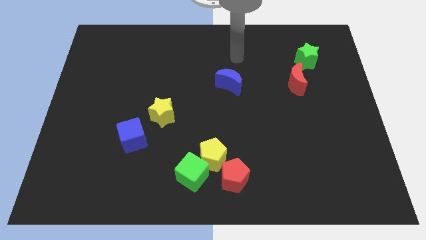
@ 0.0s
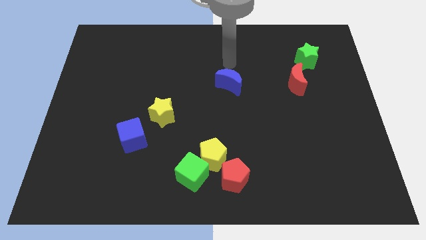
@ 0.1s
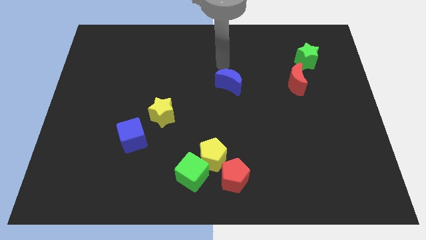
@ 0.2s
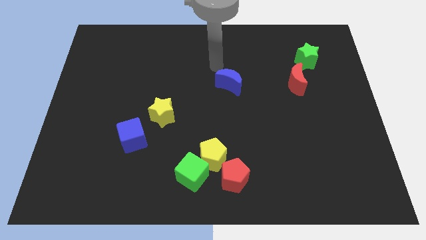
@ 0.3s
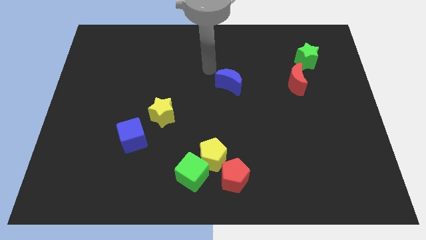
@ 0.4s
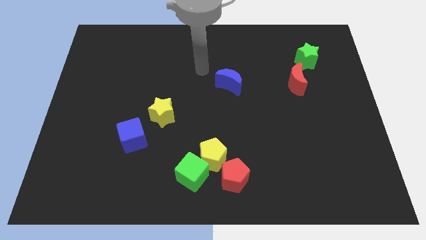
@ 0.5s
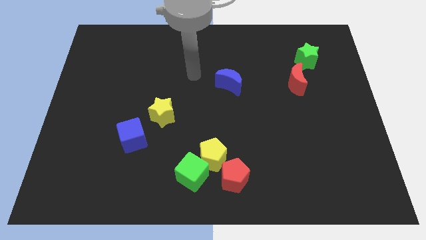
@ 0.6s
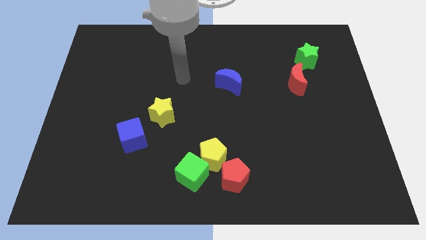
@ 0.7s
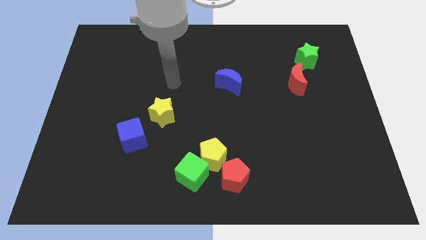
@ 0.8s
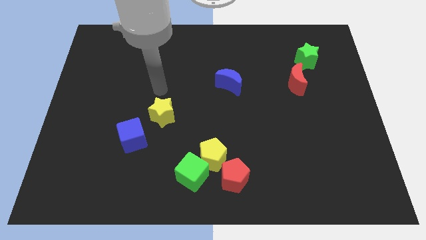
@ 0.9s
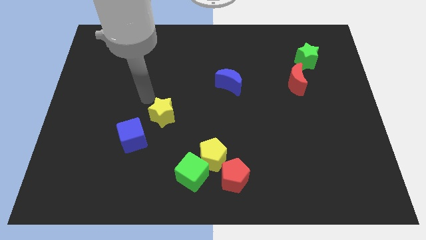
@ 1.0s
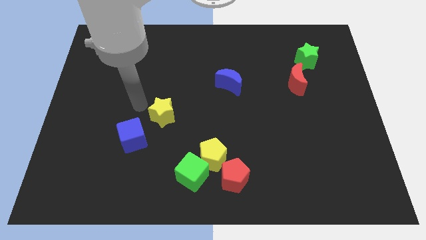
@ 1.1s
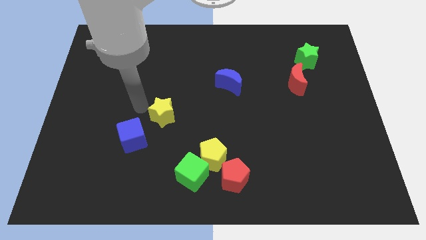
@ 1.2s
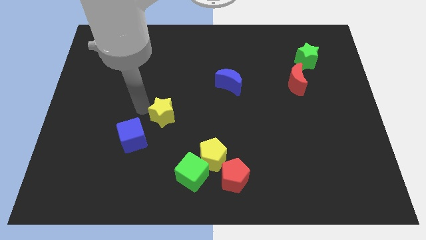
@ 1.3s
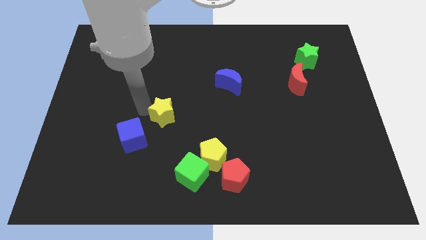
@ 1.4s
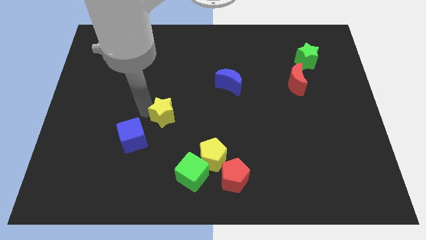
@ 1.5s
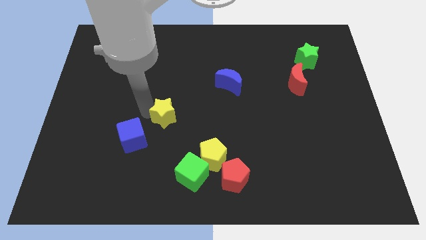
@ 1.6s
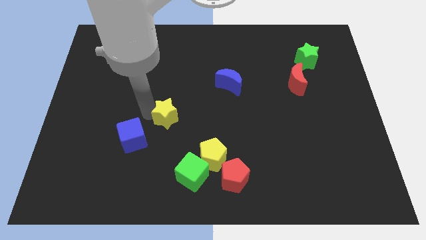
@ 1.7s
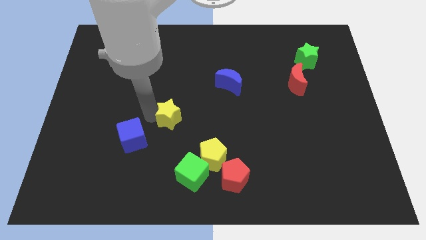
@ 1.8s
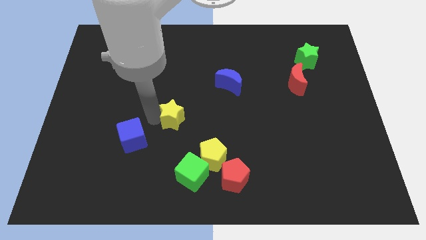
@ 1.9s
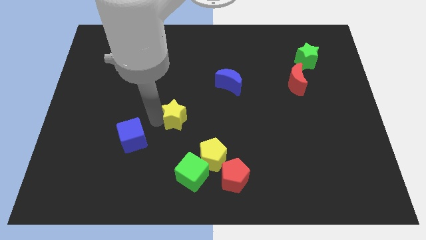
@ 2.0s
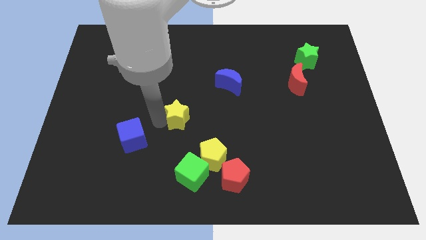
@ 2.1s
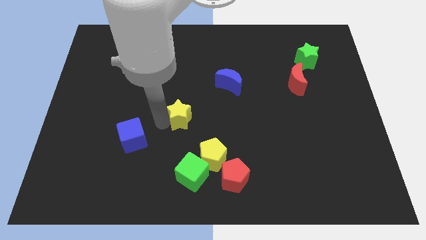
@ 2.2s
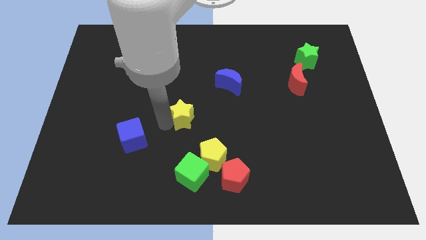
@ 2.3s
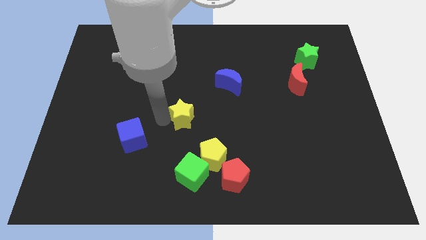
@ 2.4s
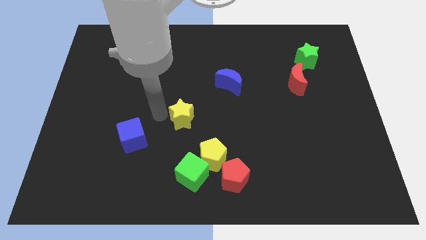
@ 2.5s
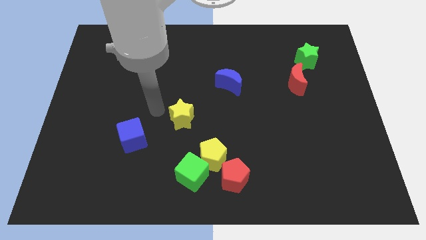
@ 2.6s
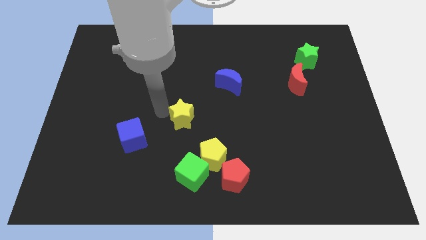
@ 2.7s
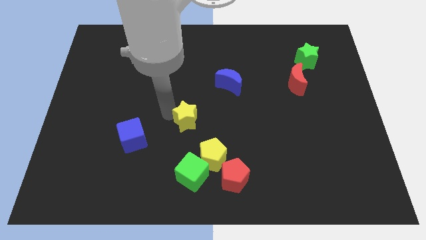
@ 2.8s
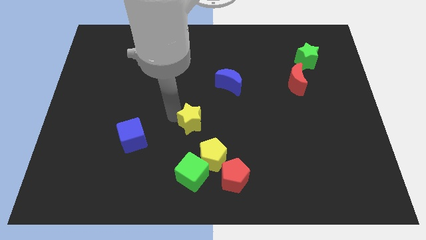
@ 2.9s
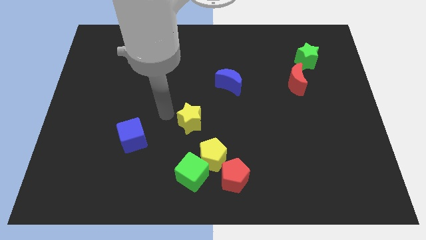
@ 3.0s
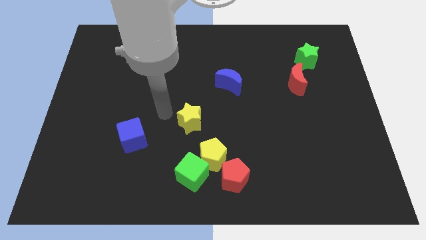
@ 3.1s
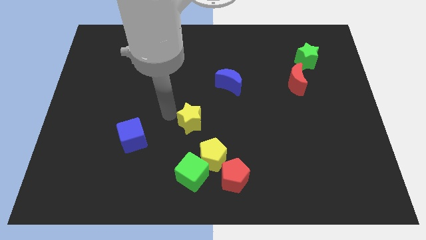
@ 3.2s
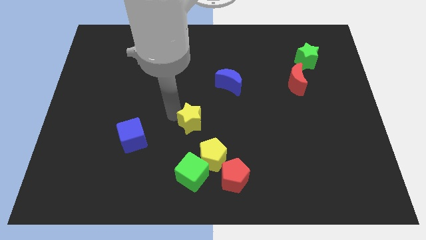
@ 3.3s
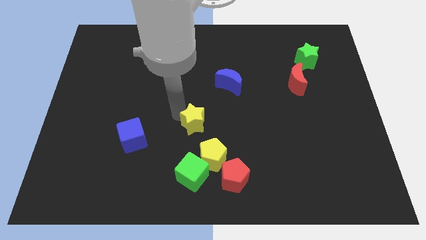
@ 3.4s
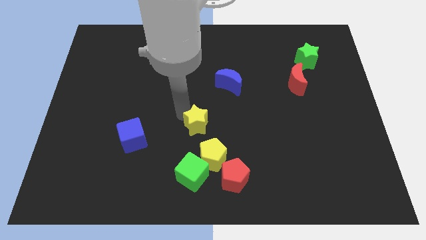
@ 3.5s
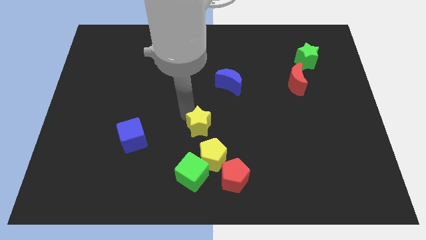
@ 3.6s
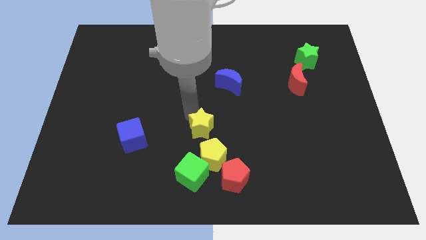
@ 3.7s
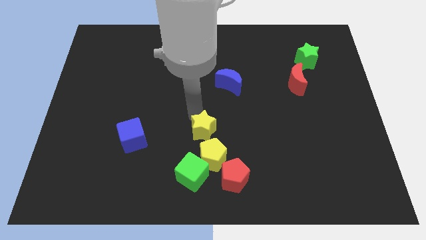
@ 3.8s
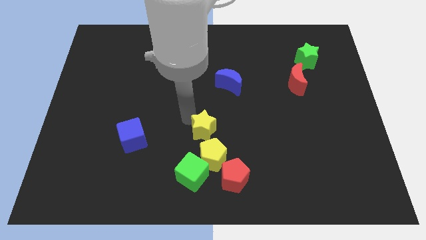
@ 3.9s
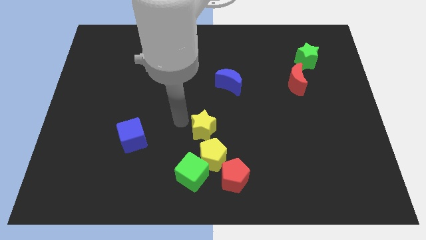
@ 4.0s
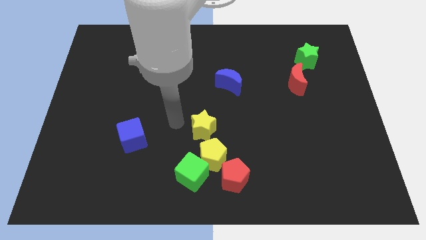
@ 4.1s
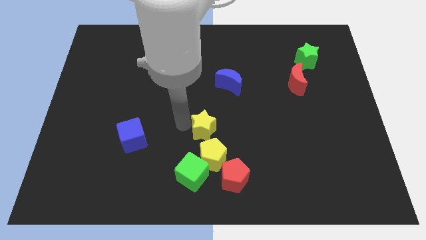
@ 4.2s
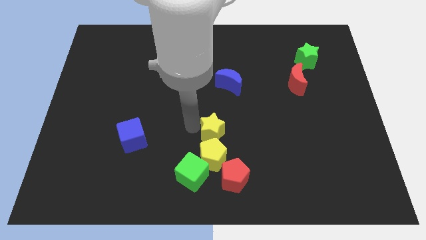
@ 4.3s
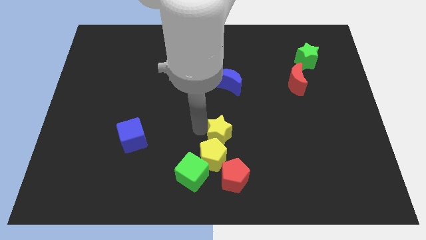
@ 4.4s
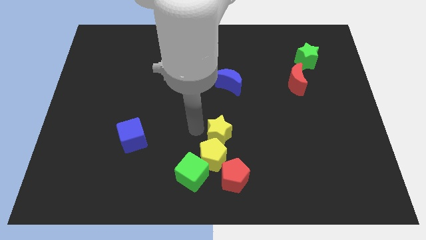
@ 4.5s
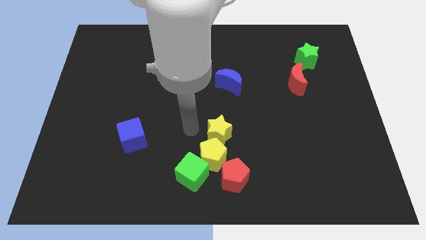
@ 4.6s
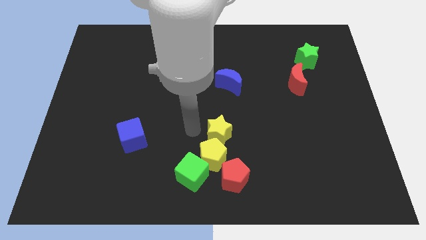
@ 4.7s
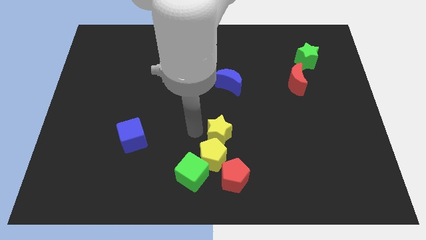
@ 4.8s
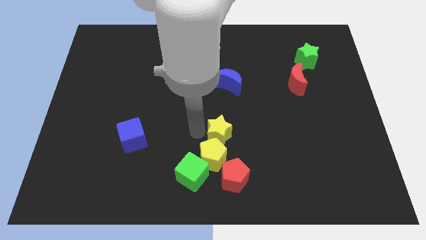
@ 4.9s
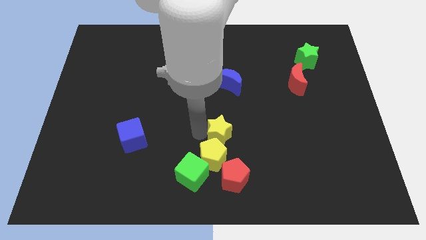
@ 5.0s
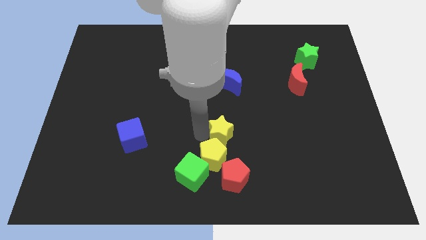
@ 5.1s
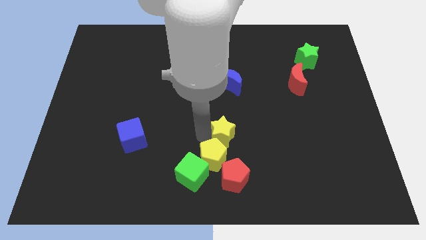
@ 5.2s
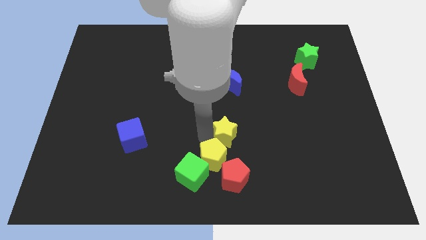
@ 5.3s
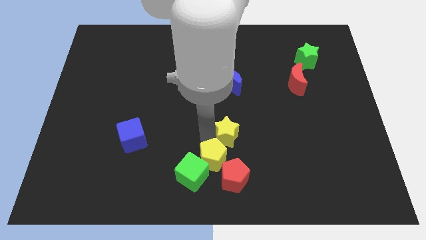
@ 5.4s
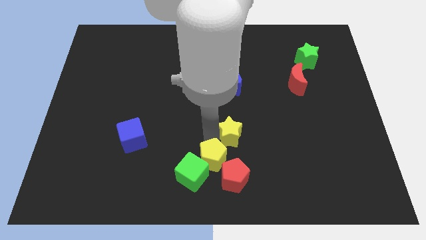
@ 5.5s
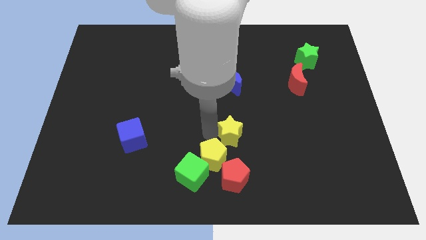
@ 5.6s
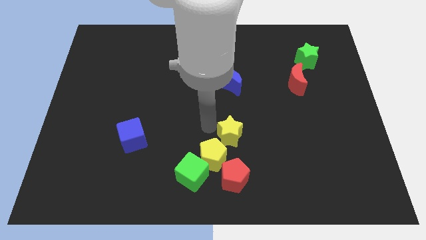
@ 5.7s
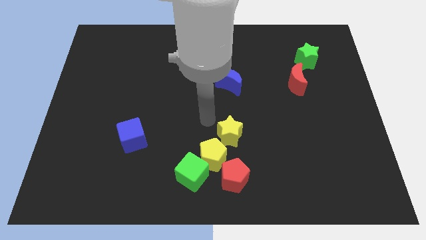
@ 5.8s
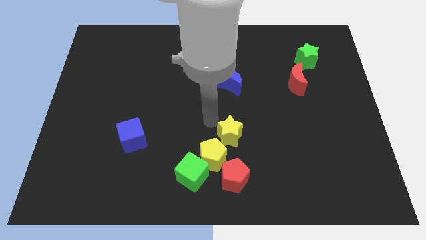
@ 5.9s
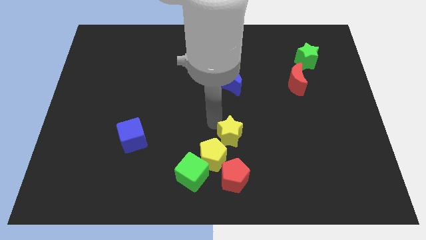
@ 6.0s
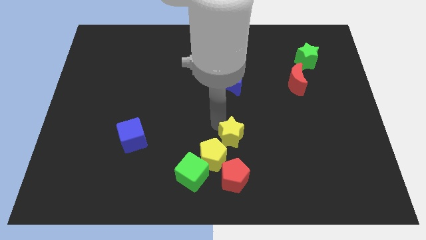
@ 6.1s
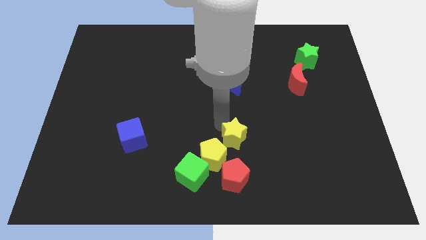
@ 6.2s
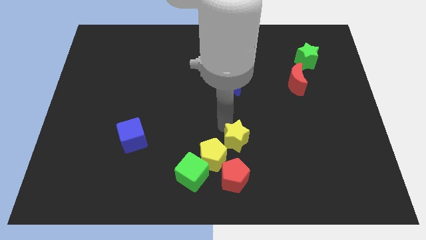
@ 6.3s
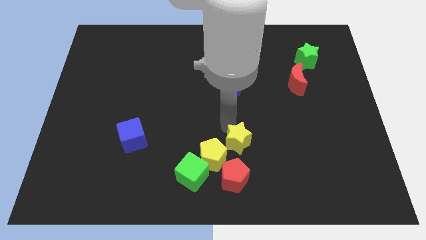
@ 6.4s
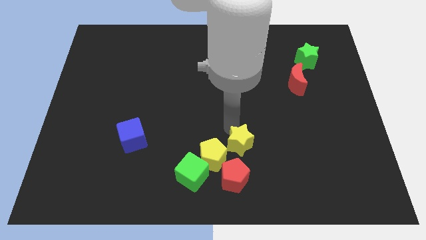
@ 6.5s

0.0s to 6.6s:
slide the yellow star to the top right side of the red pentagon

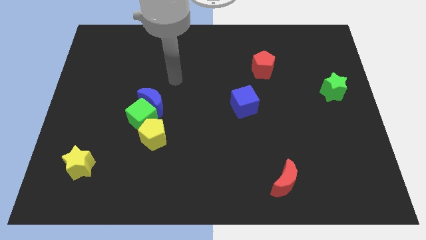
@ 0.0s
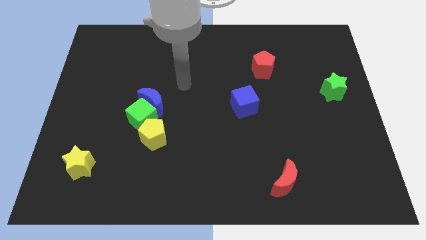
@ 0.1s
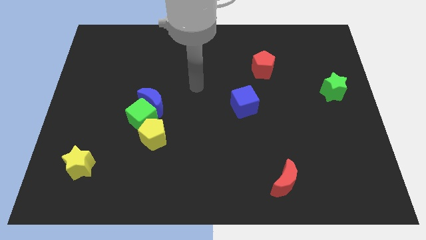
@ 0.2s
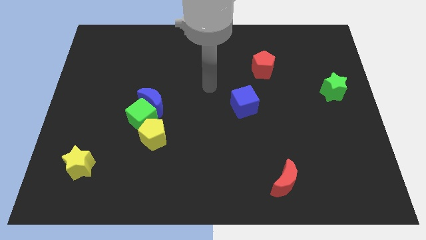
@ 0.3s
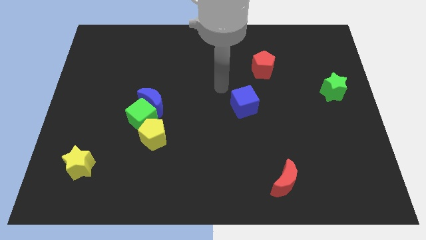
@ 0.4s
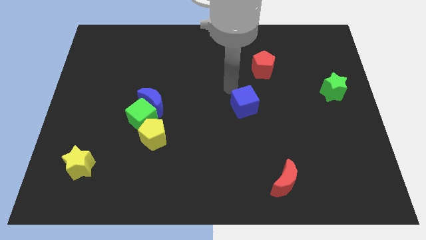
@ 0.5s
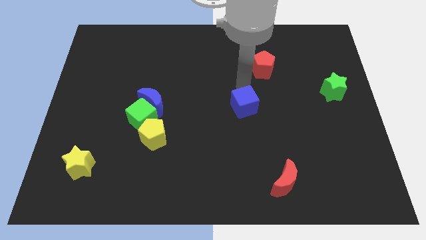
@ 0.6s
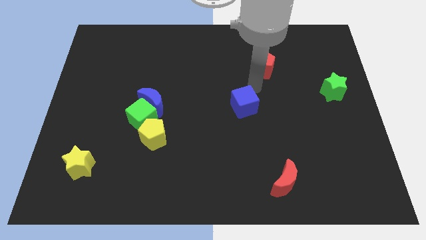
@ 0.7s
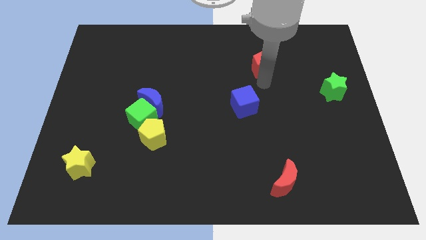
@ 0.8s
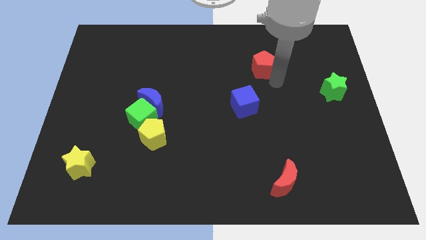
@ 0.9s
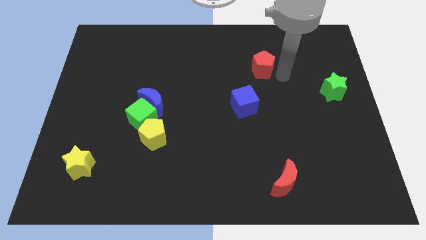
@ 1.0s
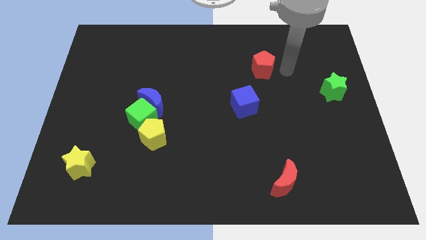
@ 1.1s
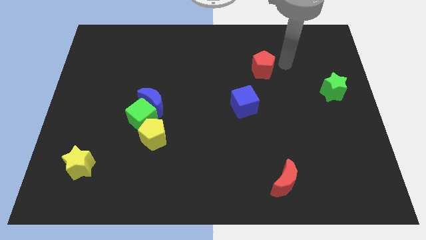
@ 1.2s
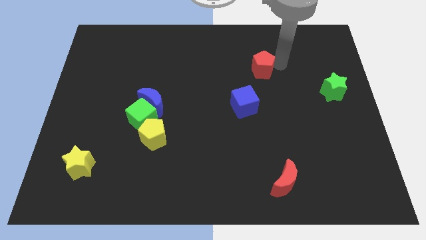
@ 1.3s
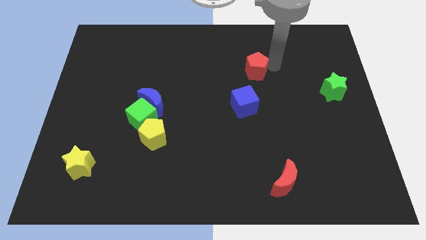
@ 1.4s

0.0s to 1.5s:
slide the red pentagon above the blue cube
